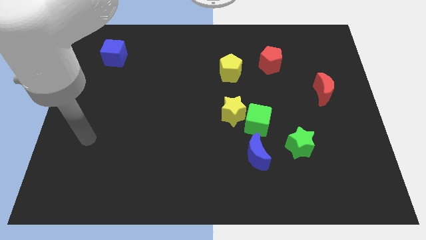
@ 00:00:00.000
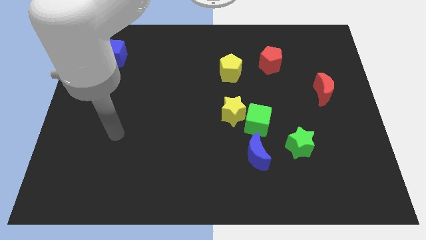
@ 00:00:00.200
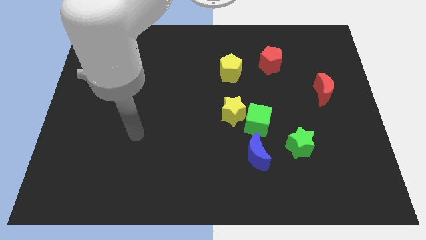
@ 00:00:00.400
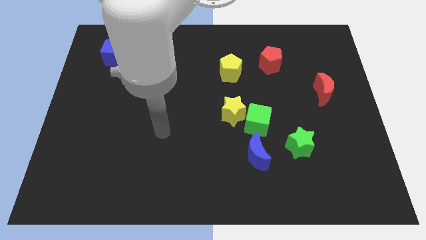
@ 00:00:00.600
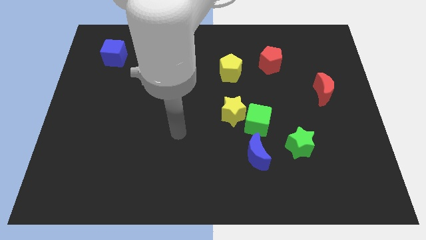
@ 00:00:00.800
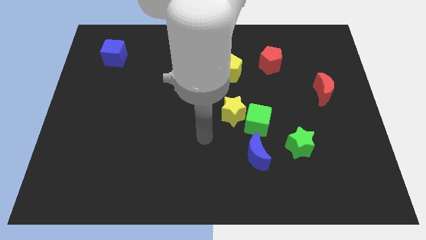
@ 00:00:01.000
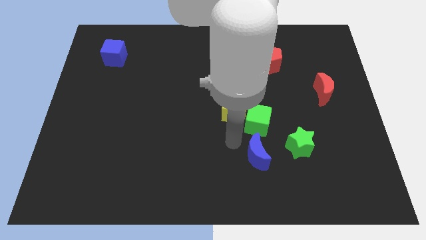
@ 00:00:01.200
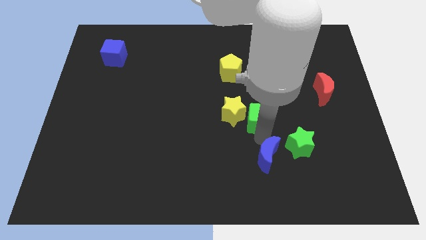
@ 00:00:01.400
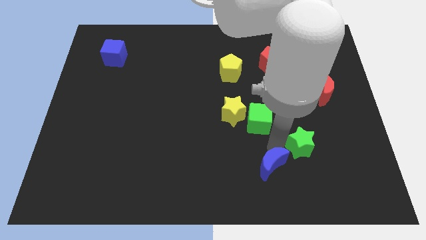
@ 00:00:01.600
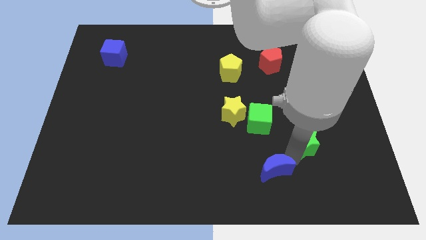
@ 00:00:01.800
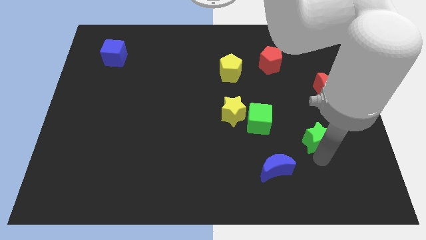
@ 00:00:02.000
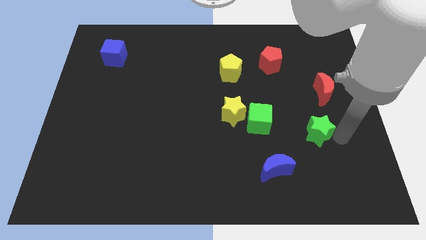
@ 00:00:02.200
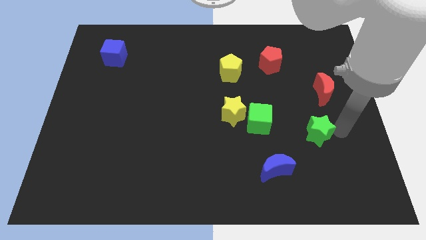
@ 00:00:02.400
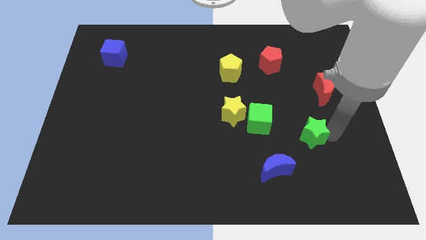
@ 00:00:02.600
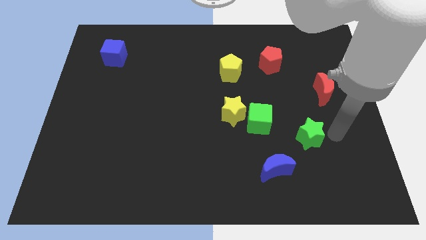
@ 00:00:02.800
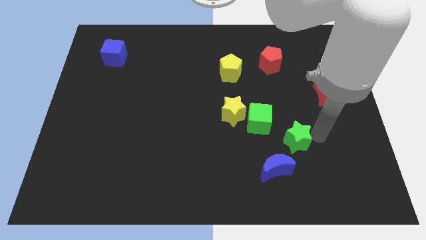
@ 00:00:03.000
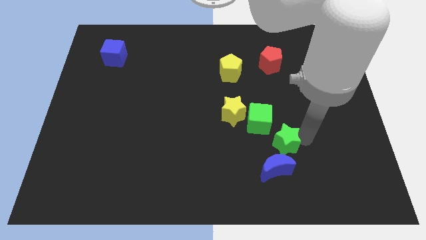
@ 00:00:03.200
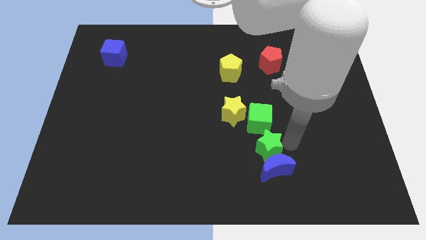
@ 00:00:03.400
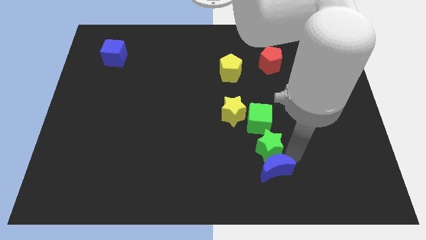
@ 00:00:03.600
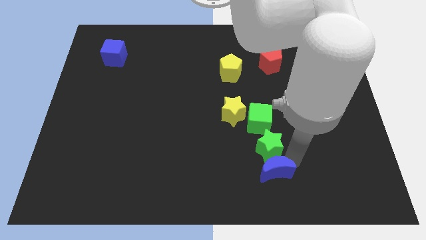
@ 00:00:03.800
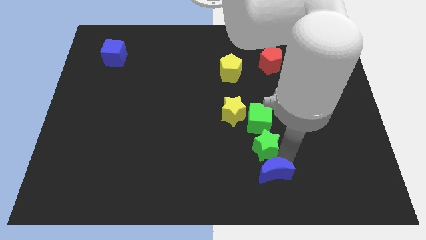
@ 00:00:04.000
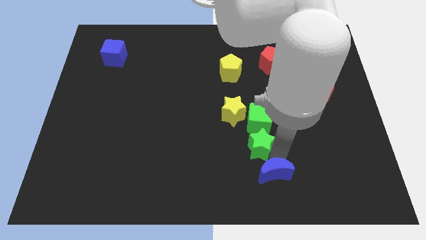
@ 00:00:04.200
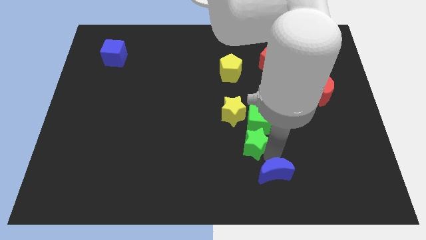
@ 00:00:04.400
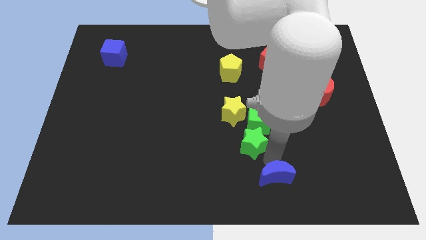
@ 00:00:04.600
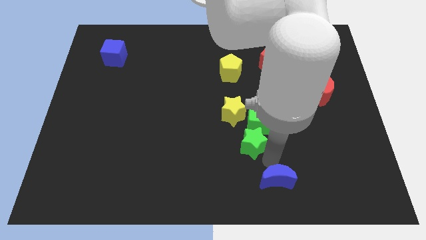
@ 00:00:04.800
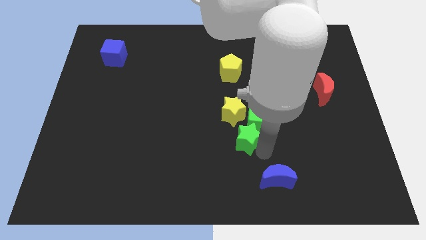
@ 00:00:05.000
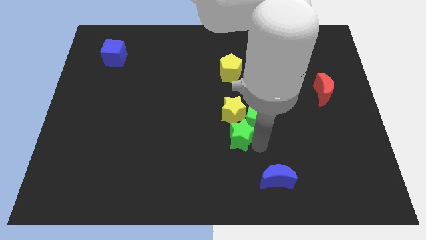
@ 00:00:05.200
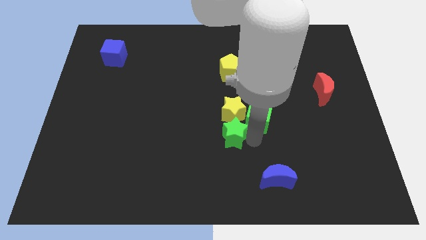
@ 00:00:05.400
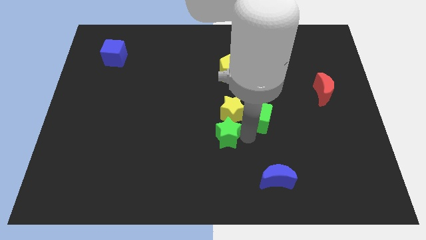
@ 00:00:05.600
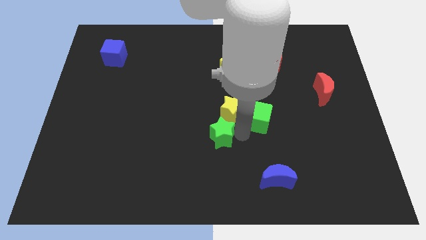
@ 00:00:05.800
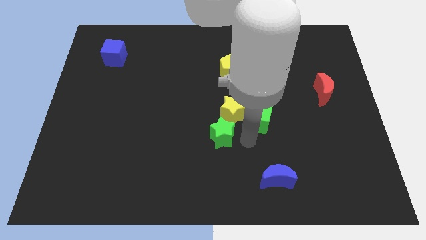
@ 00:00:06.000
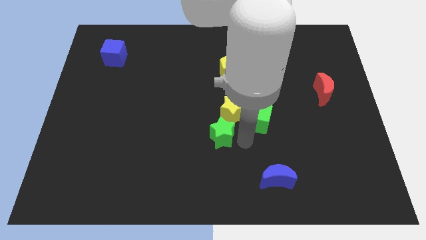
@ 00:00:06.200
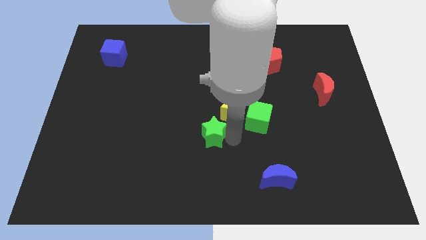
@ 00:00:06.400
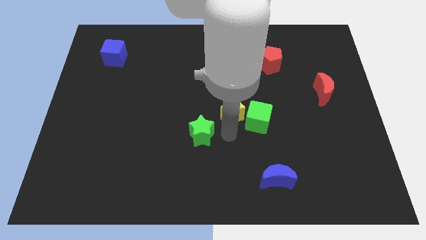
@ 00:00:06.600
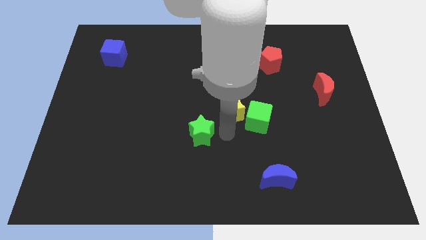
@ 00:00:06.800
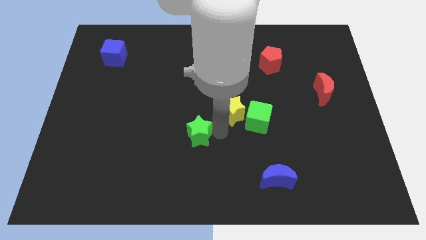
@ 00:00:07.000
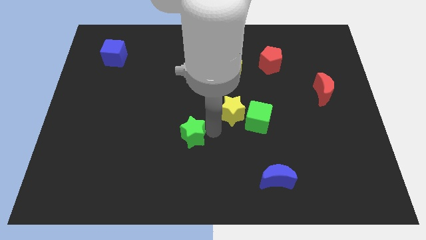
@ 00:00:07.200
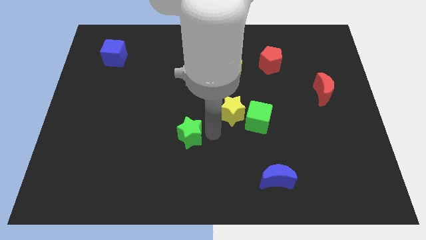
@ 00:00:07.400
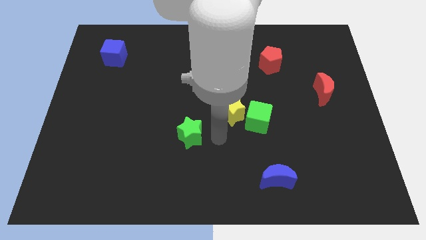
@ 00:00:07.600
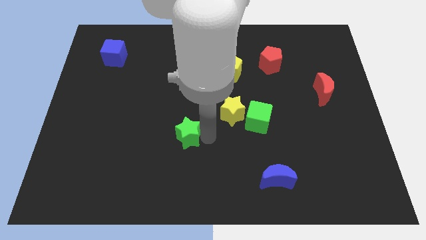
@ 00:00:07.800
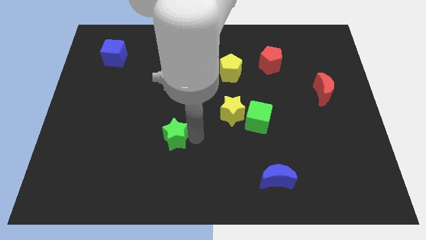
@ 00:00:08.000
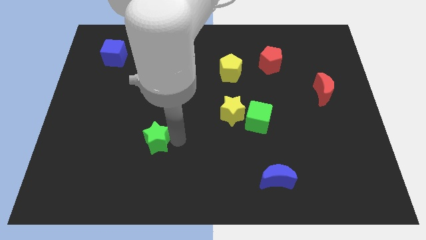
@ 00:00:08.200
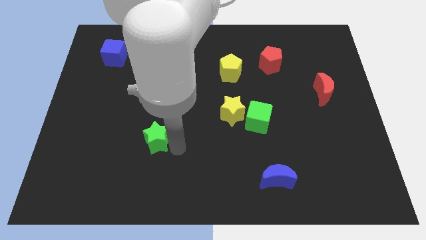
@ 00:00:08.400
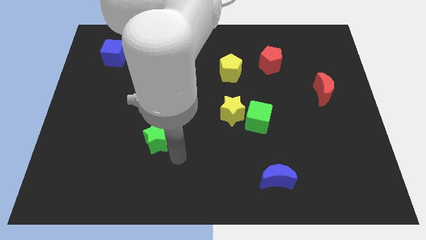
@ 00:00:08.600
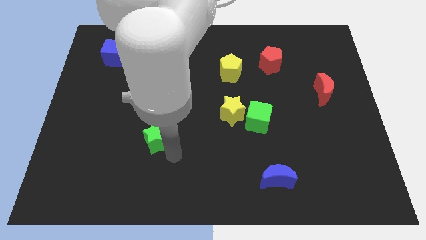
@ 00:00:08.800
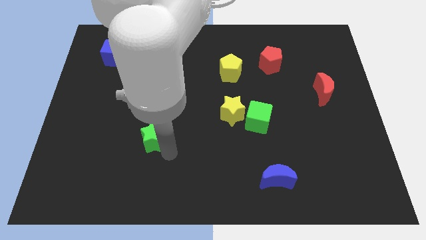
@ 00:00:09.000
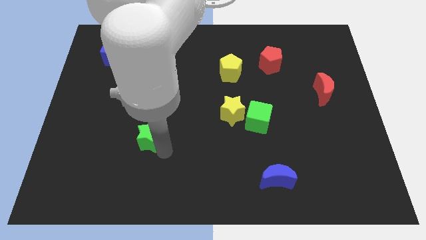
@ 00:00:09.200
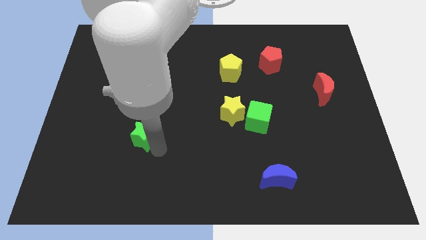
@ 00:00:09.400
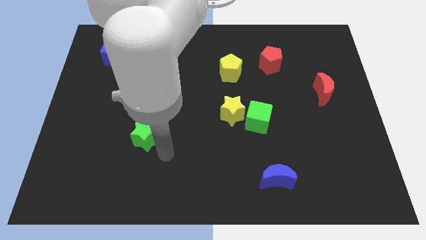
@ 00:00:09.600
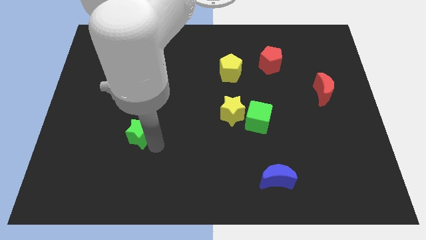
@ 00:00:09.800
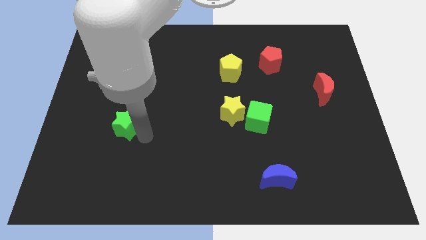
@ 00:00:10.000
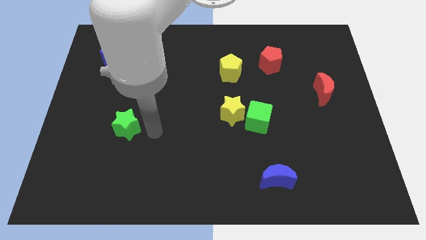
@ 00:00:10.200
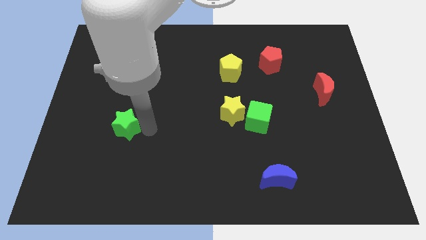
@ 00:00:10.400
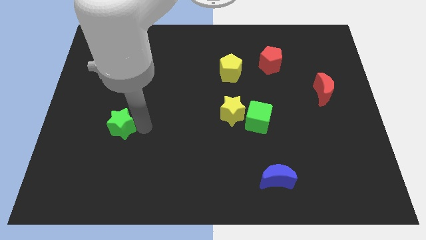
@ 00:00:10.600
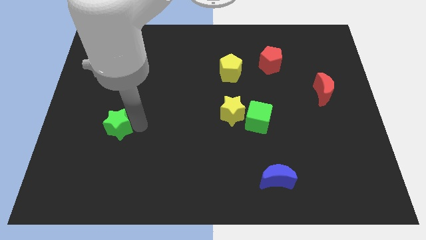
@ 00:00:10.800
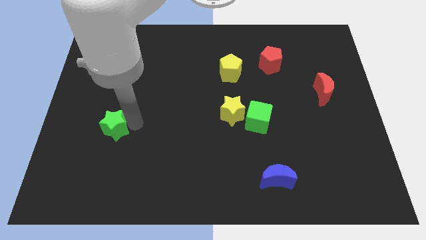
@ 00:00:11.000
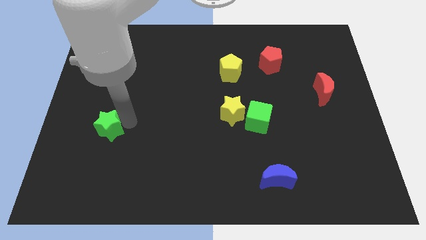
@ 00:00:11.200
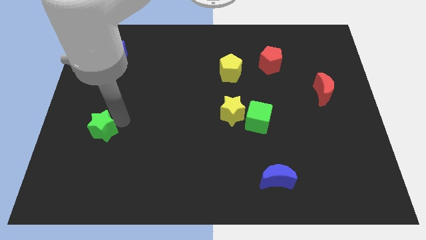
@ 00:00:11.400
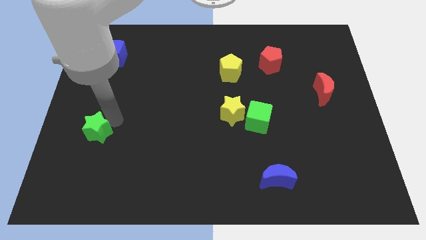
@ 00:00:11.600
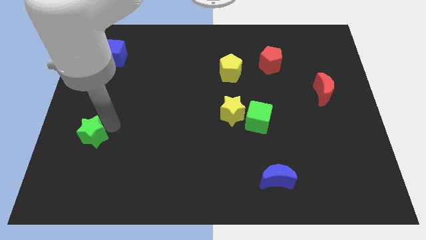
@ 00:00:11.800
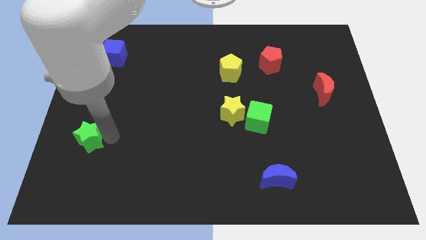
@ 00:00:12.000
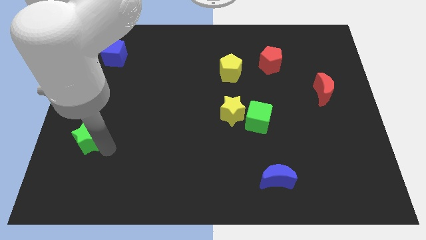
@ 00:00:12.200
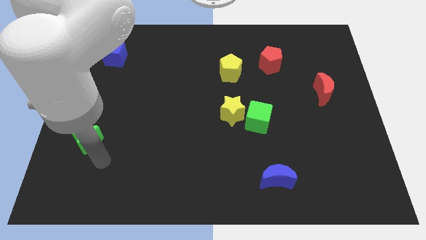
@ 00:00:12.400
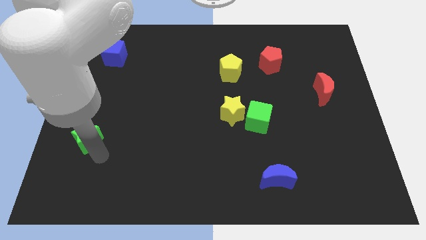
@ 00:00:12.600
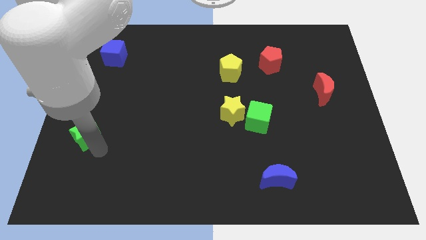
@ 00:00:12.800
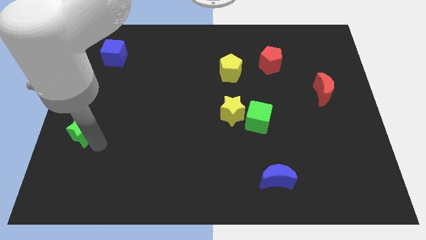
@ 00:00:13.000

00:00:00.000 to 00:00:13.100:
put the green star to the left side of the board
